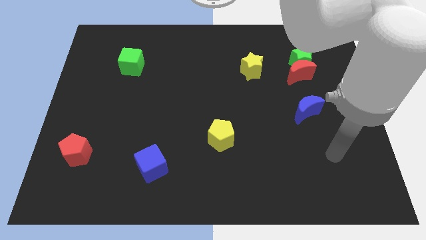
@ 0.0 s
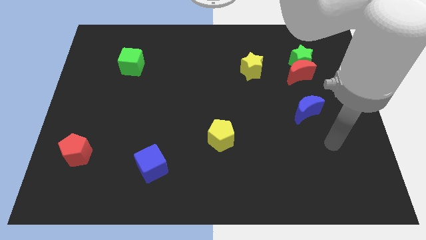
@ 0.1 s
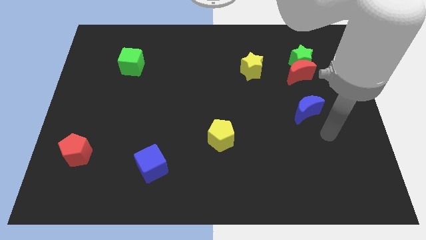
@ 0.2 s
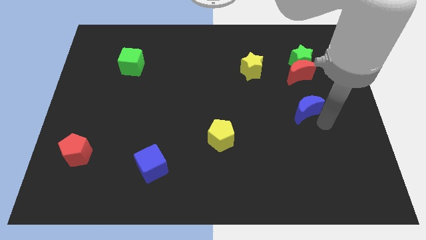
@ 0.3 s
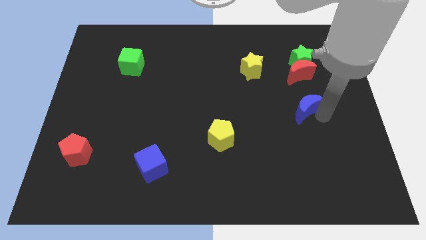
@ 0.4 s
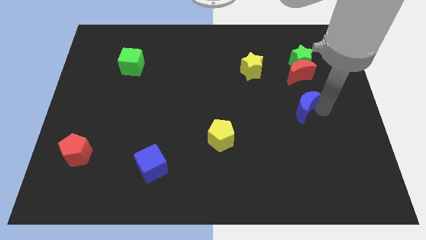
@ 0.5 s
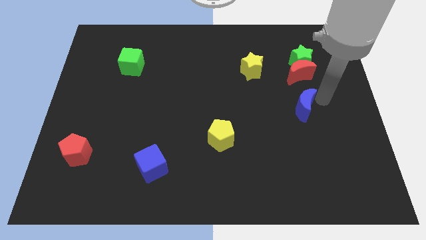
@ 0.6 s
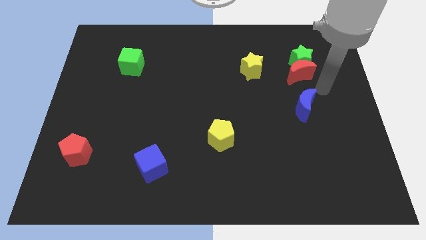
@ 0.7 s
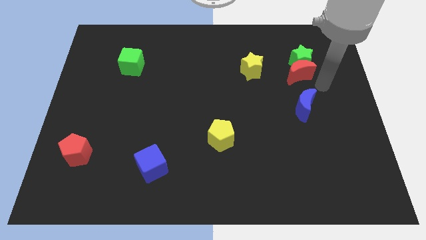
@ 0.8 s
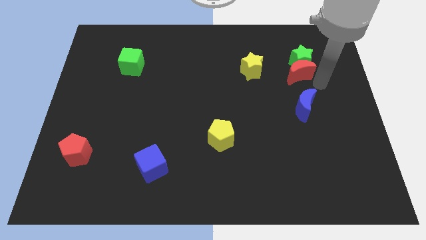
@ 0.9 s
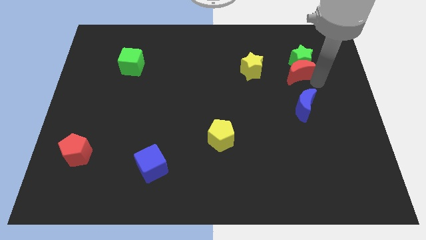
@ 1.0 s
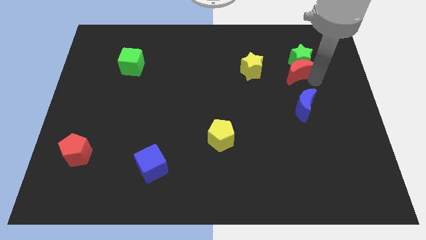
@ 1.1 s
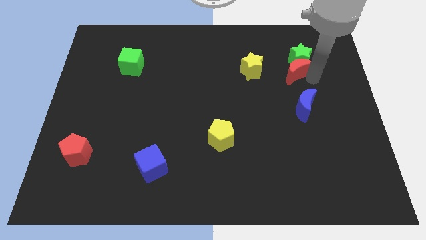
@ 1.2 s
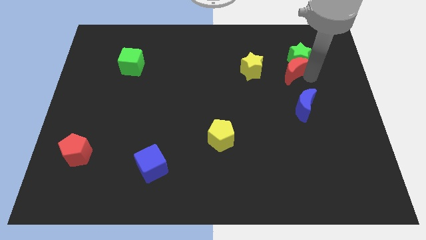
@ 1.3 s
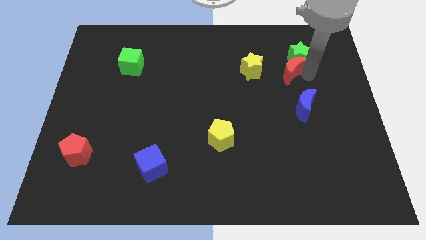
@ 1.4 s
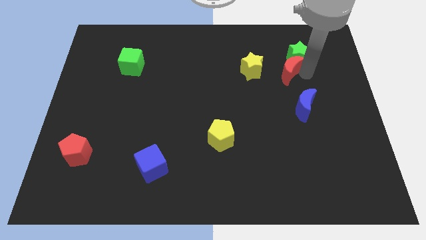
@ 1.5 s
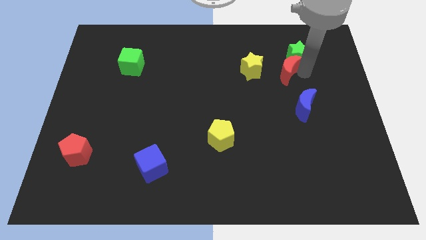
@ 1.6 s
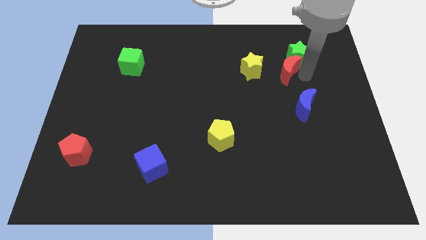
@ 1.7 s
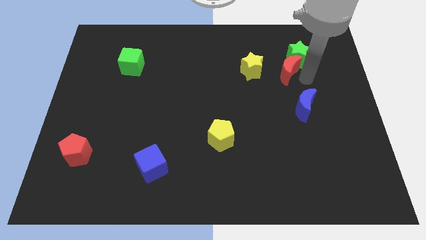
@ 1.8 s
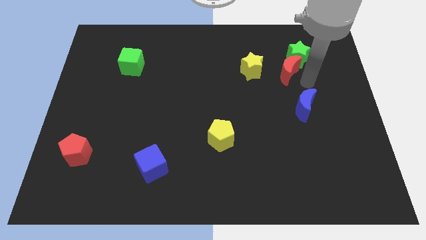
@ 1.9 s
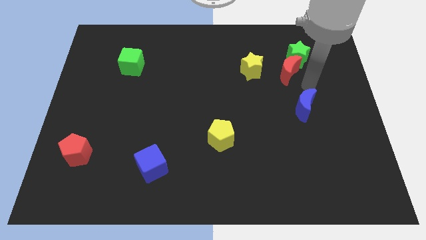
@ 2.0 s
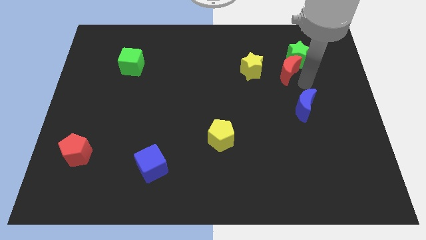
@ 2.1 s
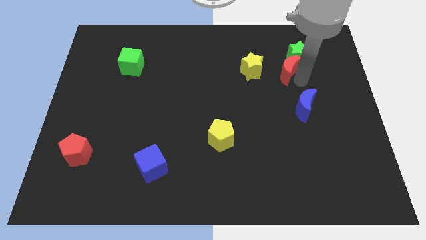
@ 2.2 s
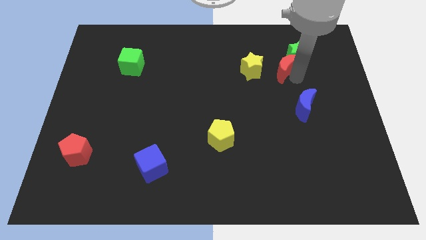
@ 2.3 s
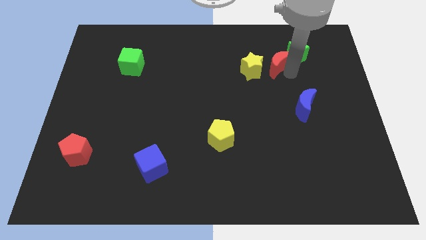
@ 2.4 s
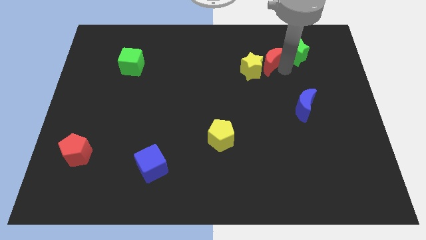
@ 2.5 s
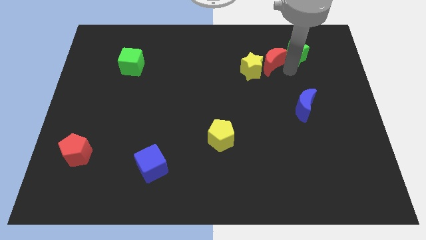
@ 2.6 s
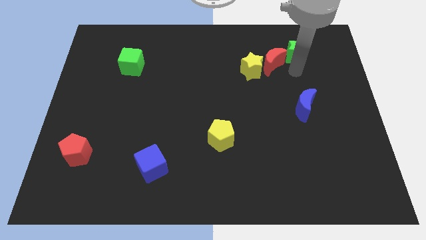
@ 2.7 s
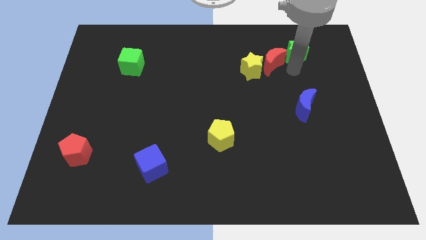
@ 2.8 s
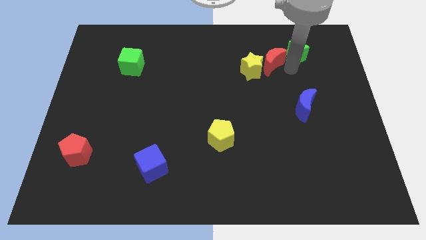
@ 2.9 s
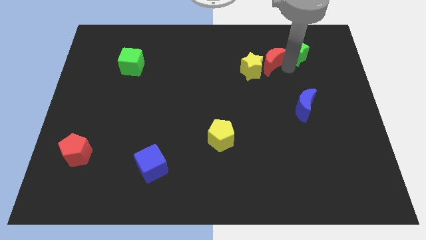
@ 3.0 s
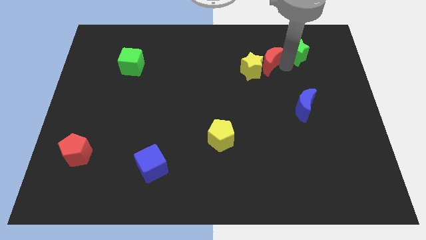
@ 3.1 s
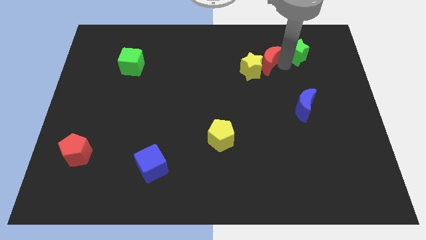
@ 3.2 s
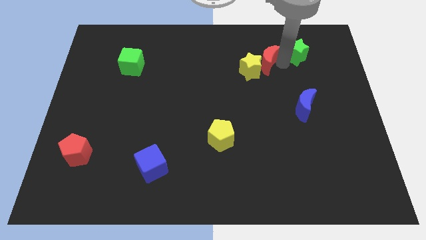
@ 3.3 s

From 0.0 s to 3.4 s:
slightly move the red moon to the left

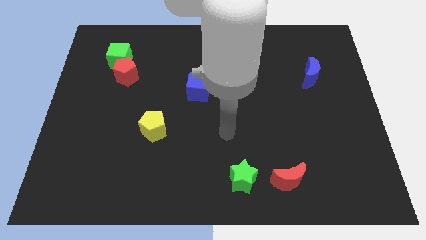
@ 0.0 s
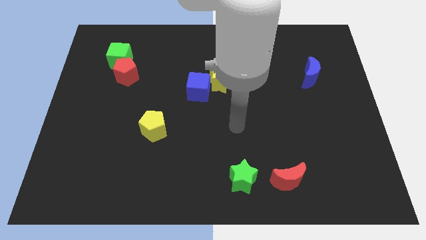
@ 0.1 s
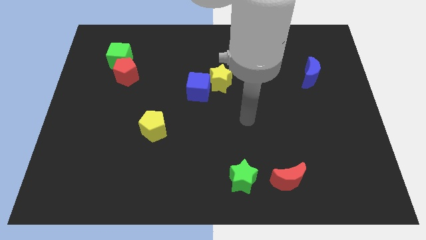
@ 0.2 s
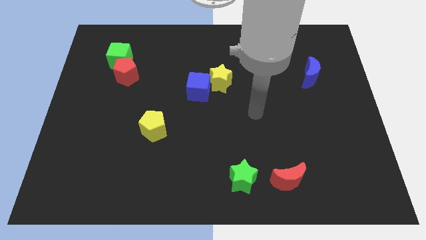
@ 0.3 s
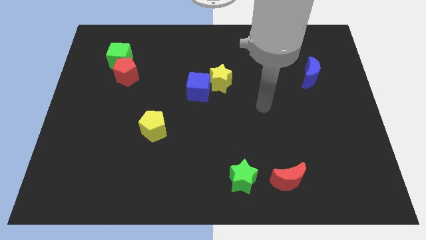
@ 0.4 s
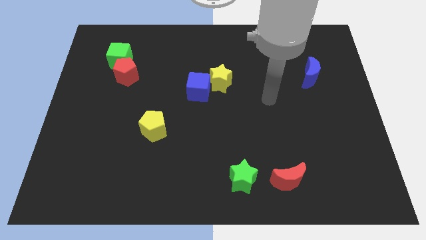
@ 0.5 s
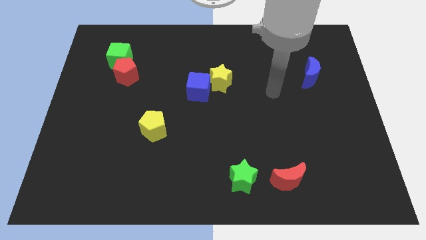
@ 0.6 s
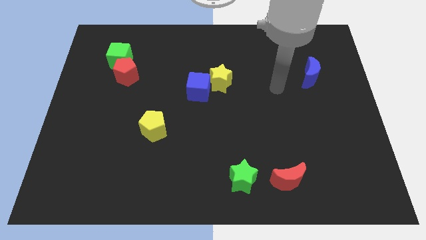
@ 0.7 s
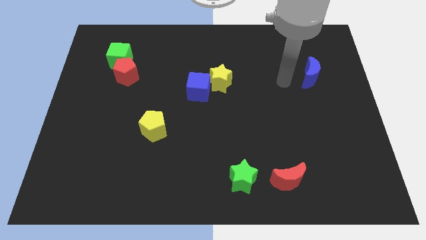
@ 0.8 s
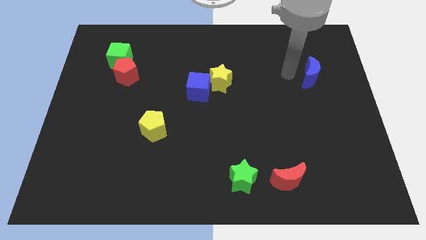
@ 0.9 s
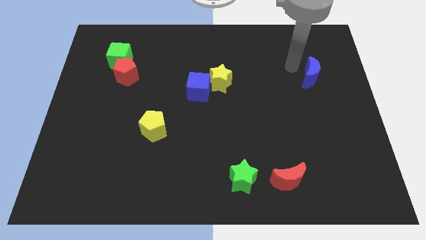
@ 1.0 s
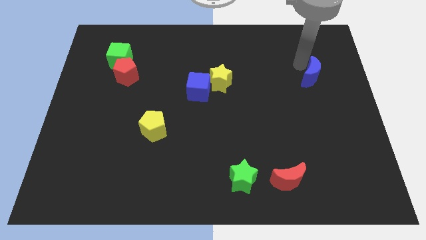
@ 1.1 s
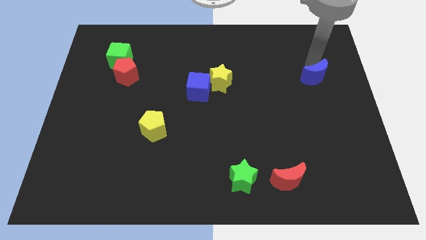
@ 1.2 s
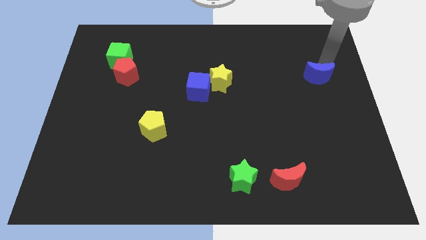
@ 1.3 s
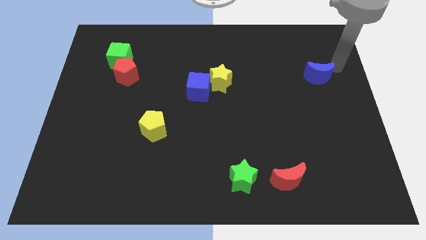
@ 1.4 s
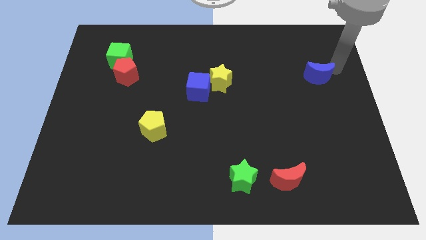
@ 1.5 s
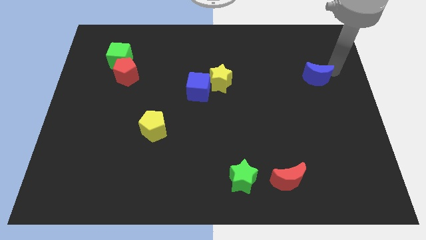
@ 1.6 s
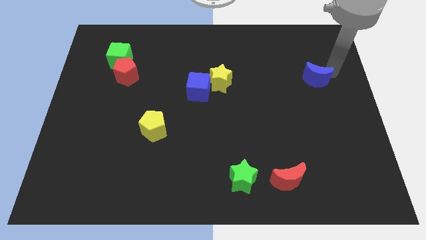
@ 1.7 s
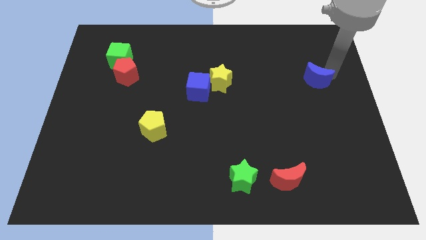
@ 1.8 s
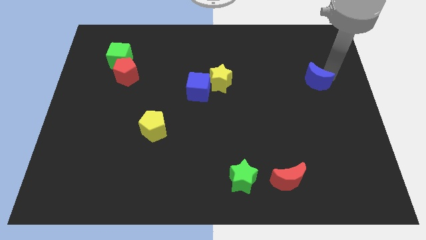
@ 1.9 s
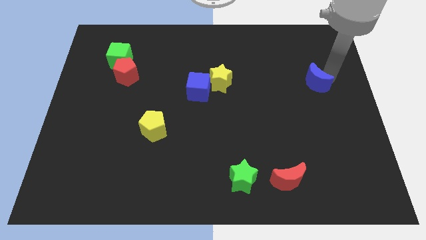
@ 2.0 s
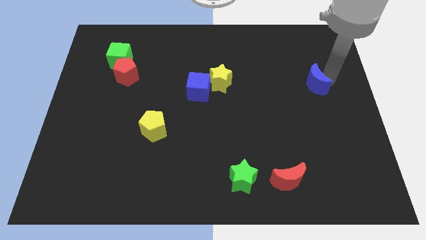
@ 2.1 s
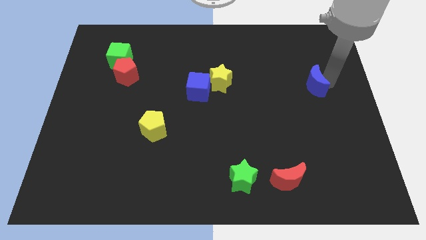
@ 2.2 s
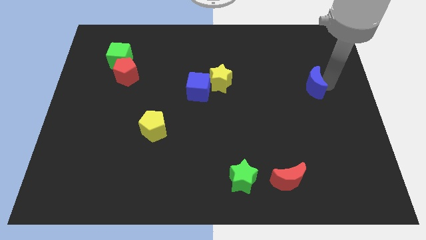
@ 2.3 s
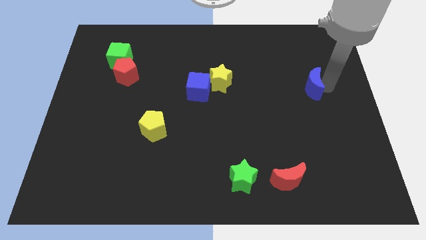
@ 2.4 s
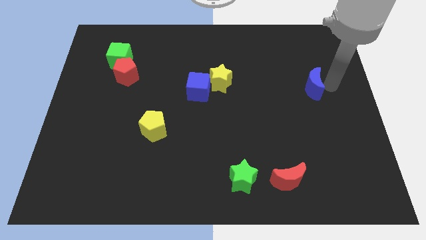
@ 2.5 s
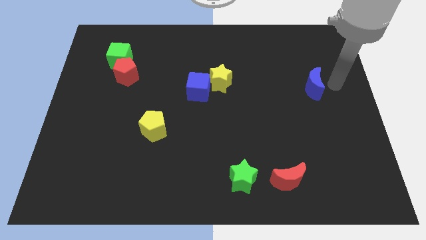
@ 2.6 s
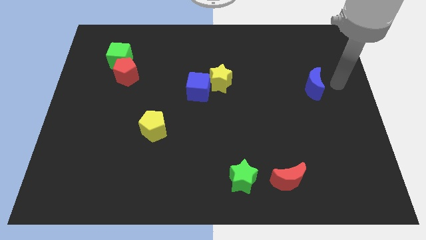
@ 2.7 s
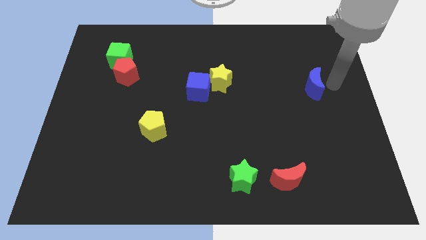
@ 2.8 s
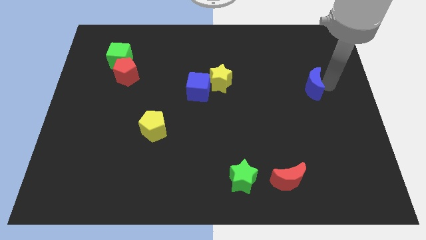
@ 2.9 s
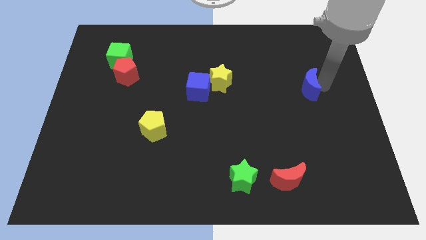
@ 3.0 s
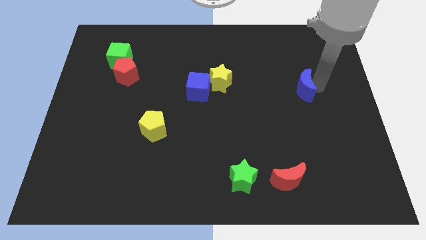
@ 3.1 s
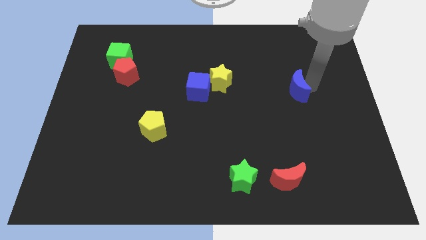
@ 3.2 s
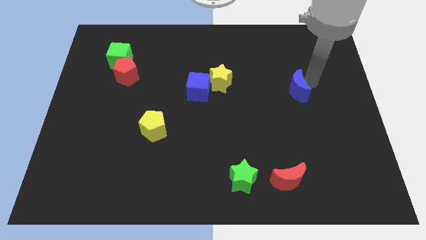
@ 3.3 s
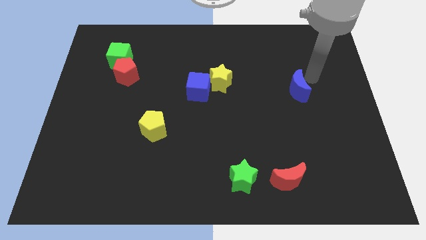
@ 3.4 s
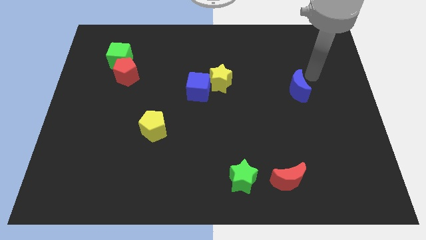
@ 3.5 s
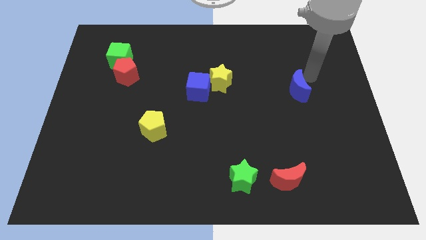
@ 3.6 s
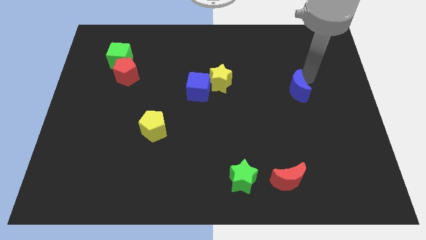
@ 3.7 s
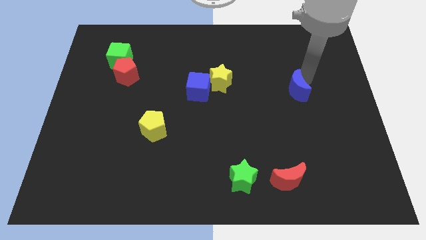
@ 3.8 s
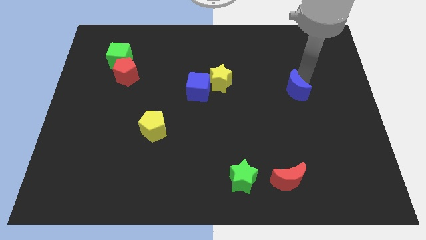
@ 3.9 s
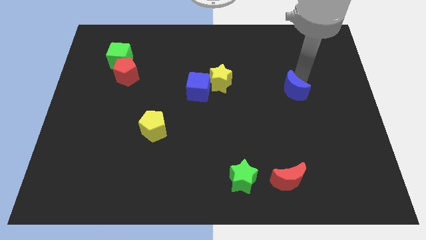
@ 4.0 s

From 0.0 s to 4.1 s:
push the blue moon a little bit down and then to the left

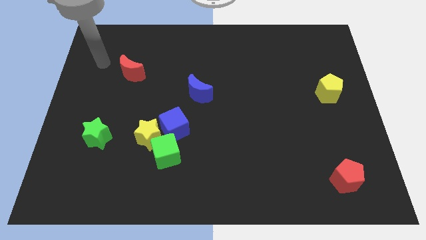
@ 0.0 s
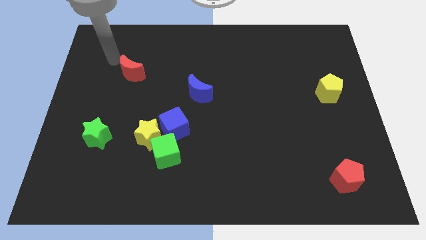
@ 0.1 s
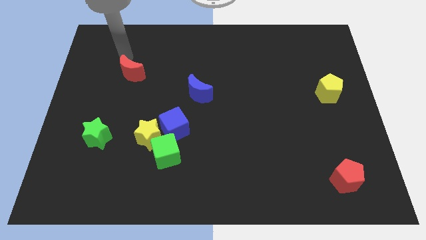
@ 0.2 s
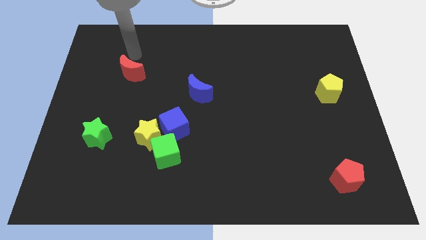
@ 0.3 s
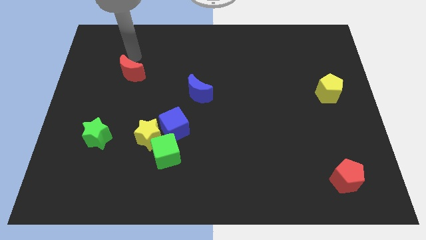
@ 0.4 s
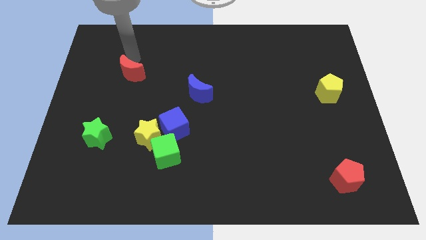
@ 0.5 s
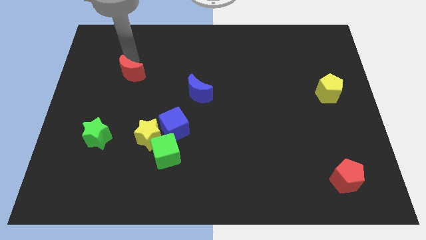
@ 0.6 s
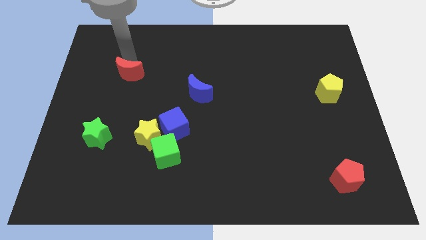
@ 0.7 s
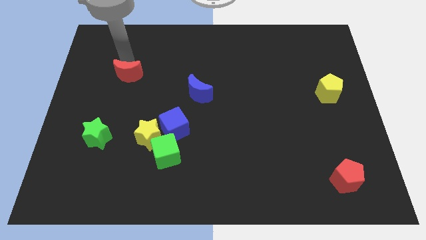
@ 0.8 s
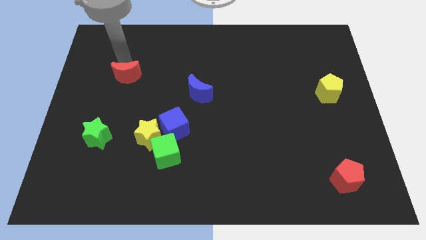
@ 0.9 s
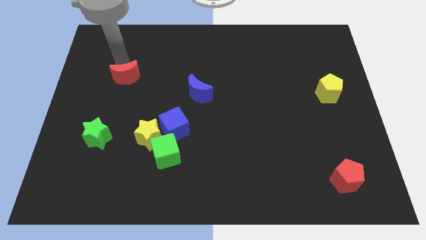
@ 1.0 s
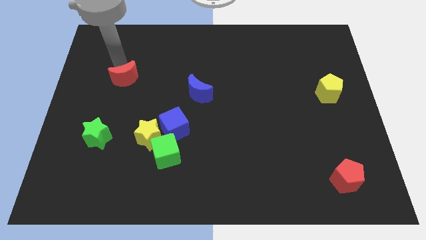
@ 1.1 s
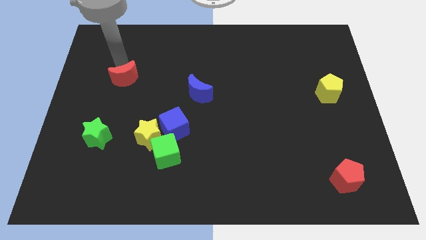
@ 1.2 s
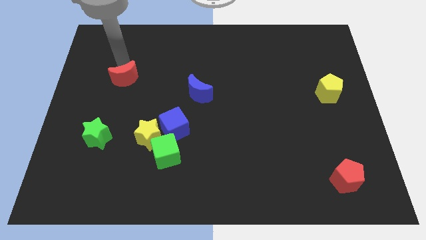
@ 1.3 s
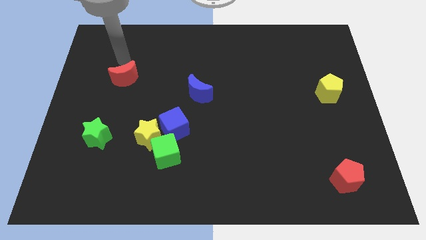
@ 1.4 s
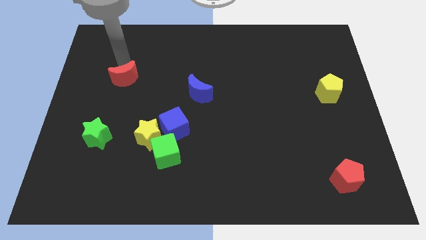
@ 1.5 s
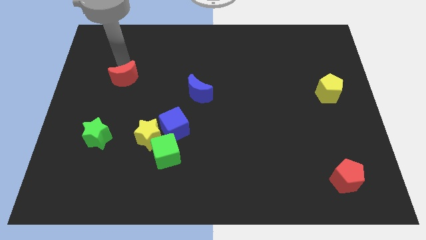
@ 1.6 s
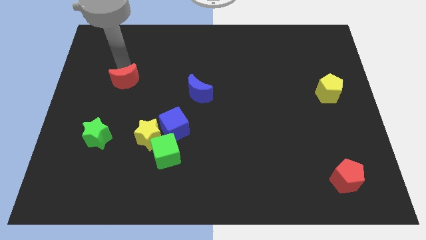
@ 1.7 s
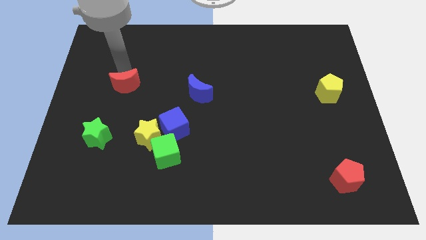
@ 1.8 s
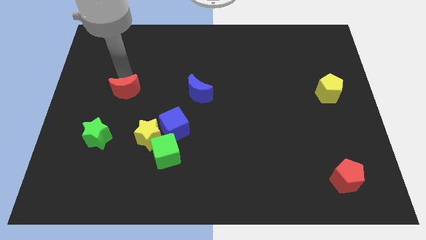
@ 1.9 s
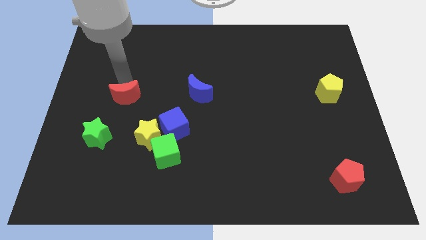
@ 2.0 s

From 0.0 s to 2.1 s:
move the red moon a little bit downwards
